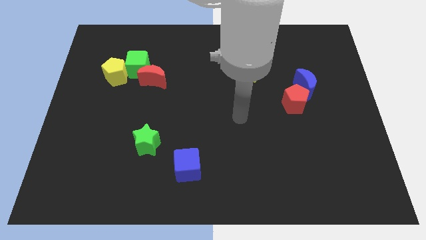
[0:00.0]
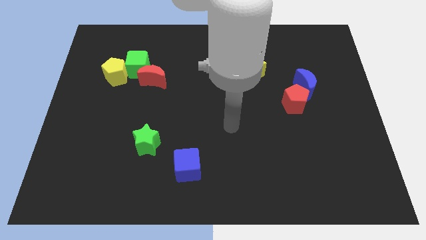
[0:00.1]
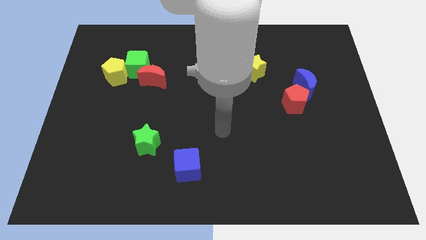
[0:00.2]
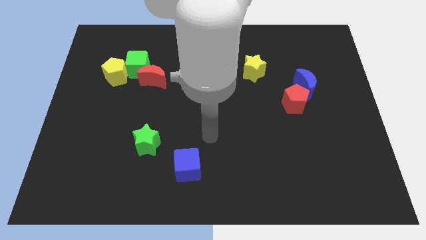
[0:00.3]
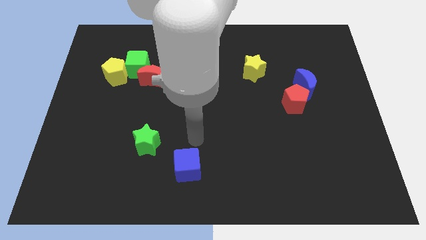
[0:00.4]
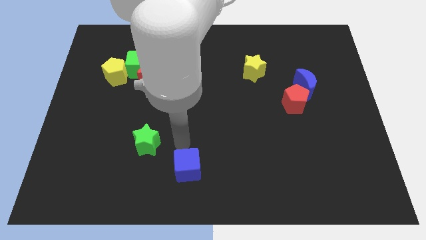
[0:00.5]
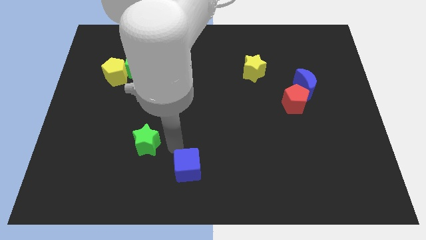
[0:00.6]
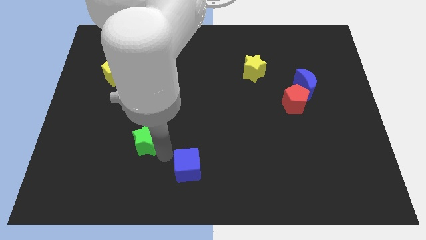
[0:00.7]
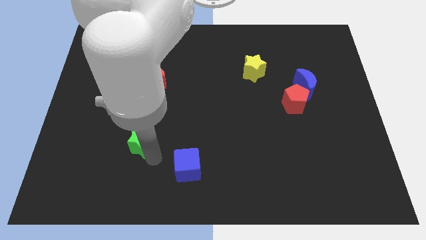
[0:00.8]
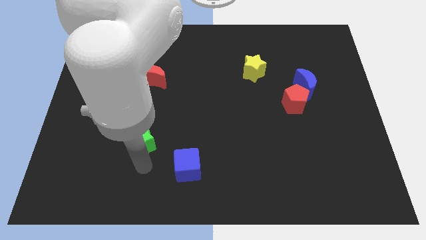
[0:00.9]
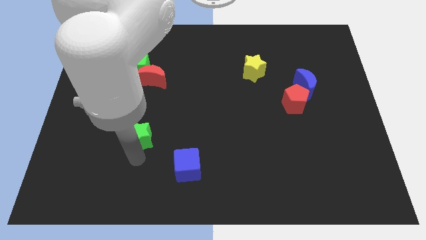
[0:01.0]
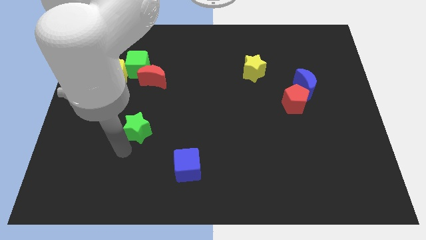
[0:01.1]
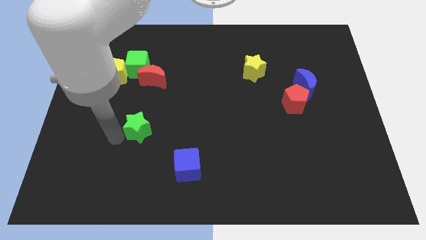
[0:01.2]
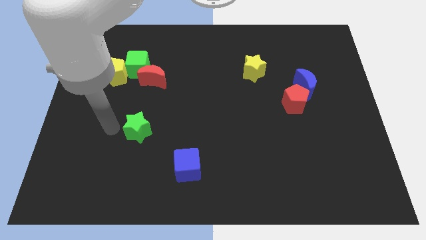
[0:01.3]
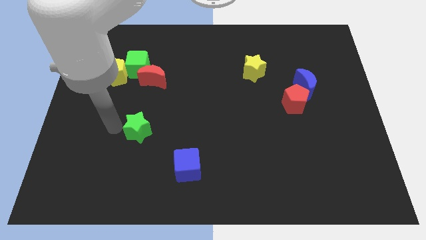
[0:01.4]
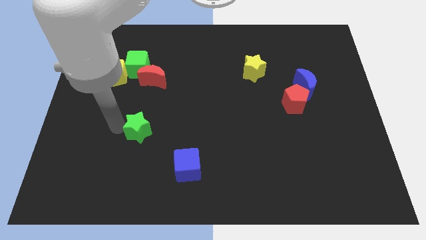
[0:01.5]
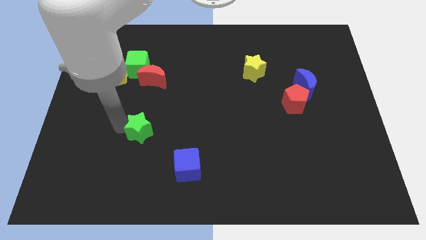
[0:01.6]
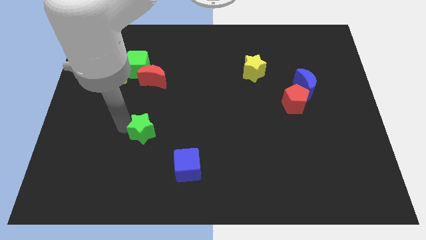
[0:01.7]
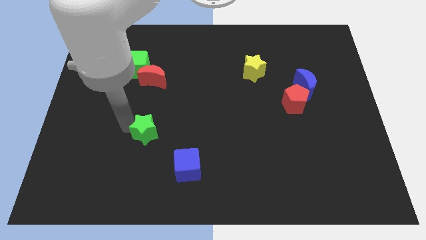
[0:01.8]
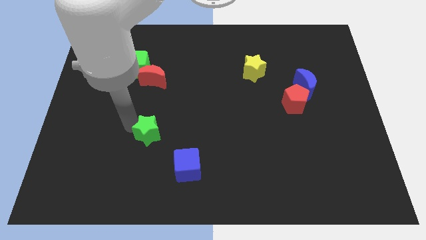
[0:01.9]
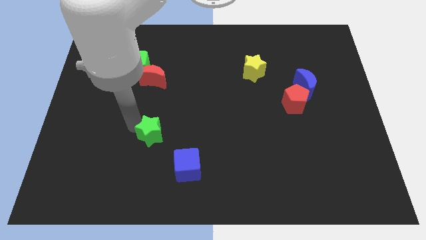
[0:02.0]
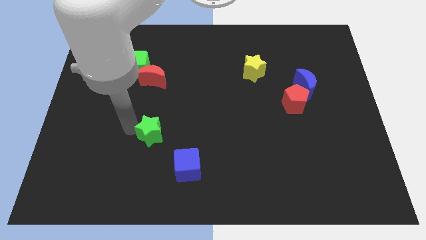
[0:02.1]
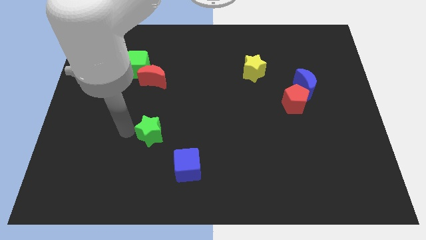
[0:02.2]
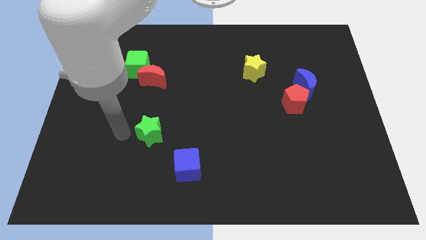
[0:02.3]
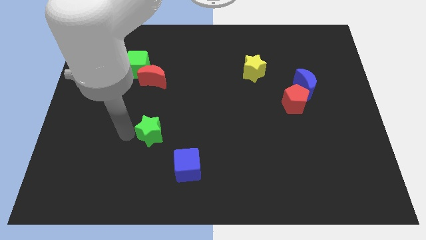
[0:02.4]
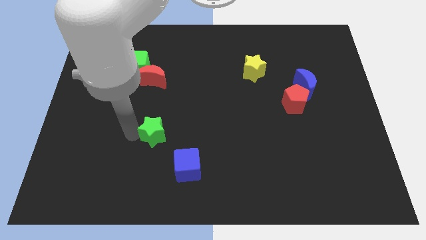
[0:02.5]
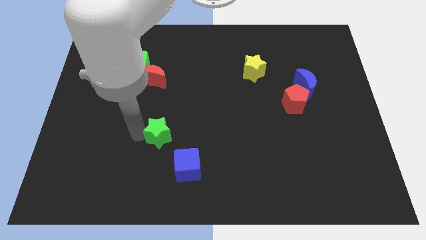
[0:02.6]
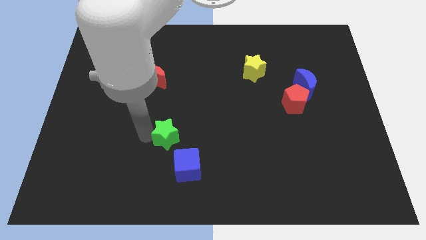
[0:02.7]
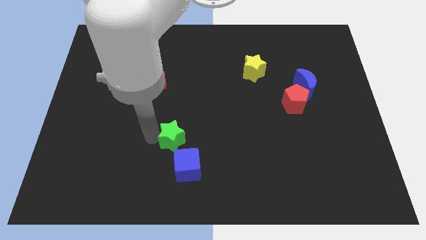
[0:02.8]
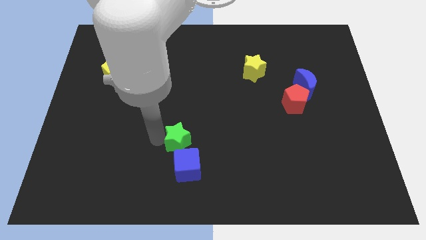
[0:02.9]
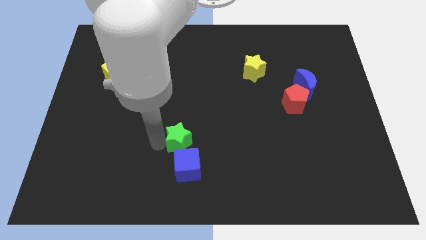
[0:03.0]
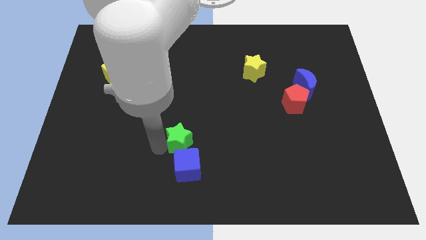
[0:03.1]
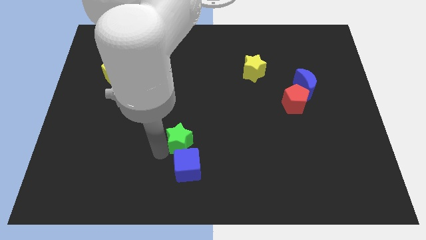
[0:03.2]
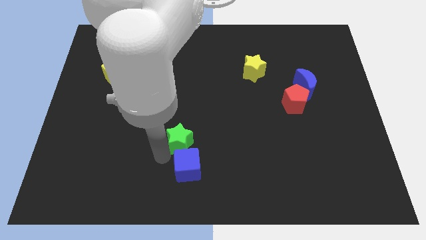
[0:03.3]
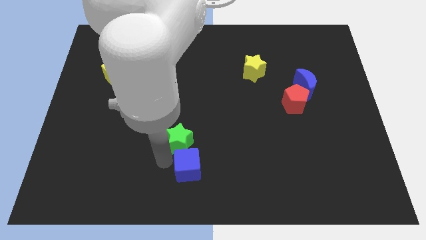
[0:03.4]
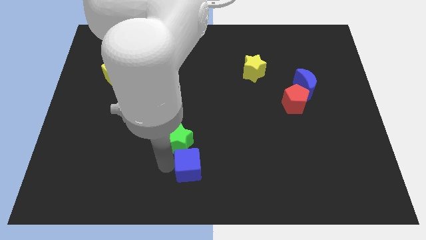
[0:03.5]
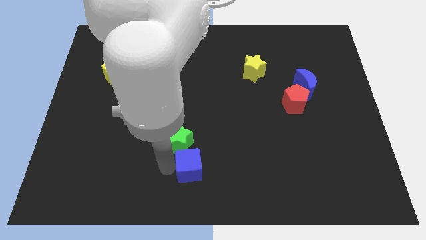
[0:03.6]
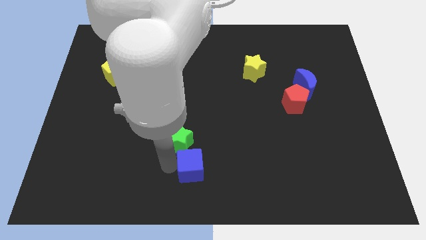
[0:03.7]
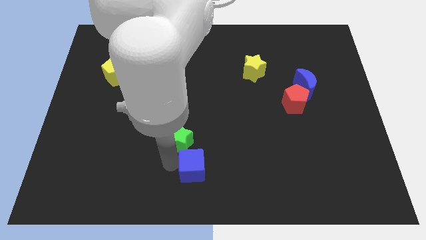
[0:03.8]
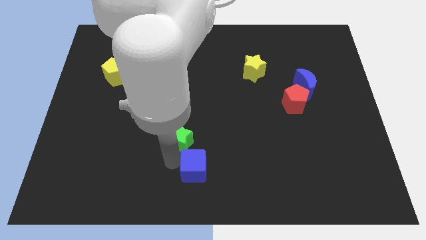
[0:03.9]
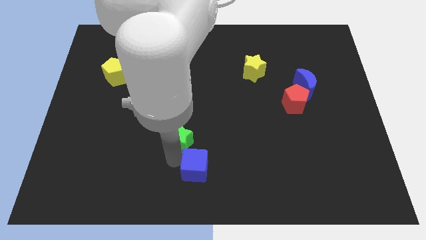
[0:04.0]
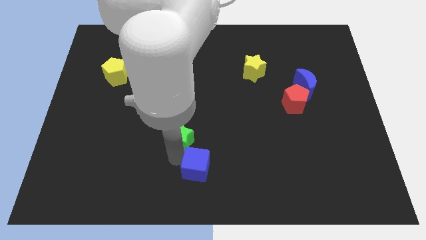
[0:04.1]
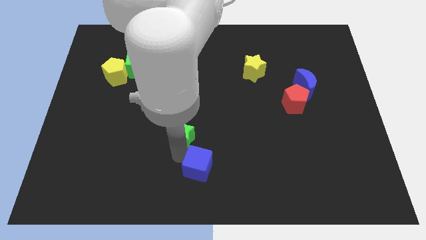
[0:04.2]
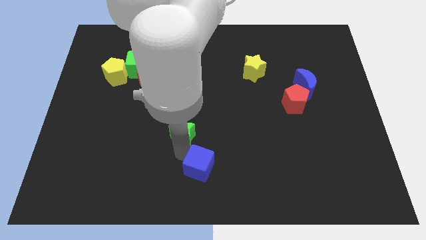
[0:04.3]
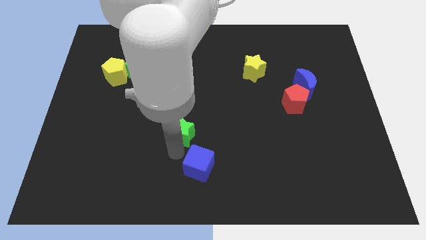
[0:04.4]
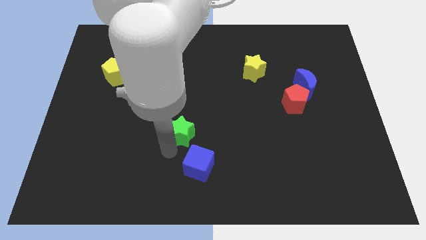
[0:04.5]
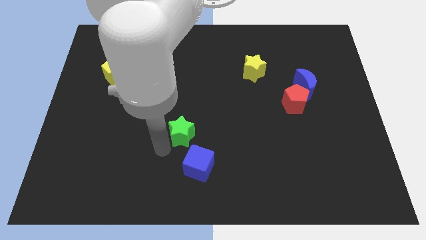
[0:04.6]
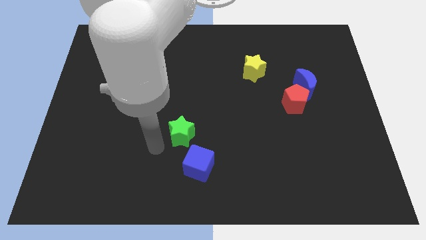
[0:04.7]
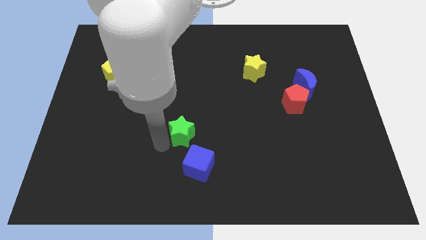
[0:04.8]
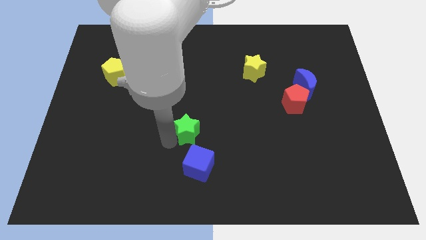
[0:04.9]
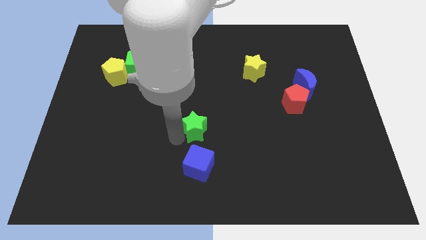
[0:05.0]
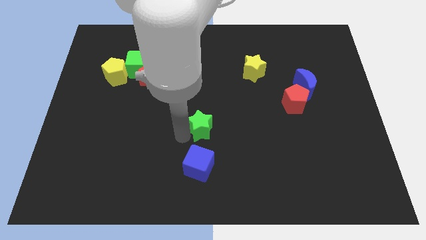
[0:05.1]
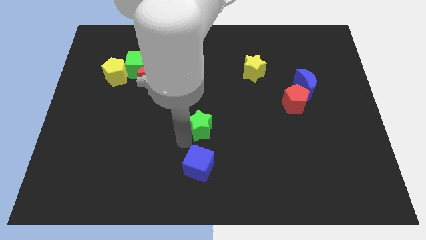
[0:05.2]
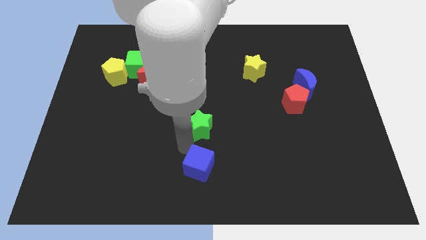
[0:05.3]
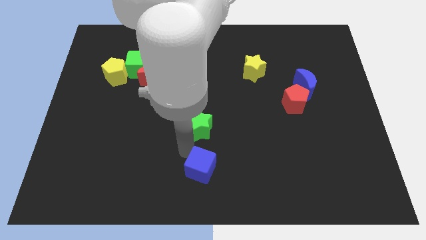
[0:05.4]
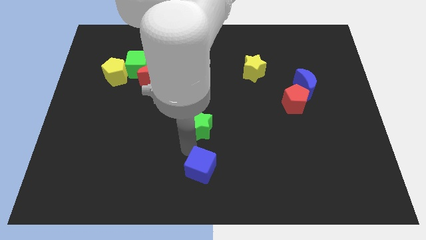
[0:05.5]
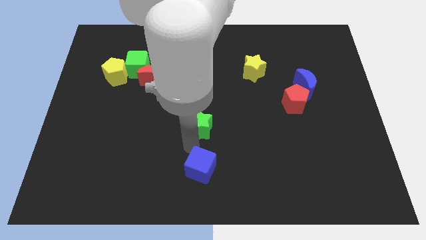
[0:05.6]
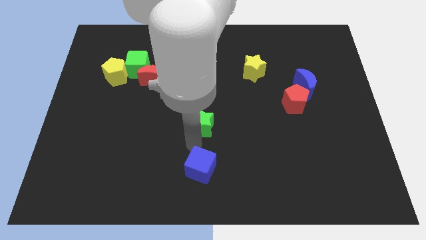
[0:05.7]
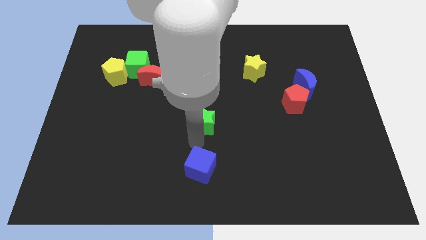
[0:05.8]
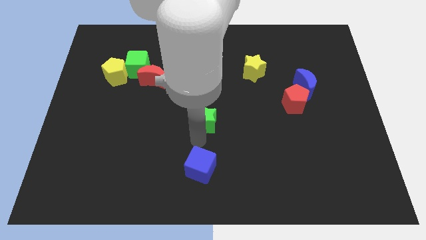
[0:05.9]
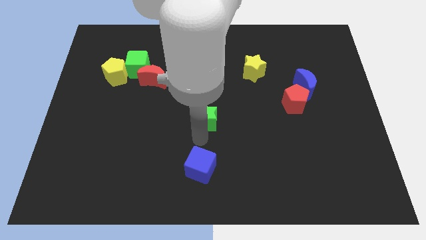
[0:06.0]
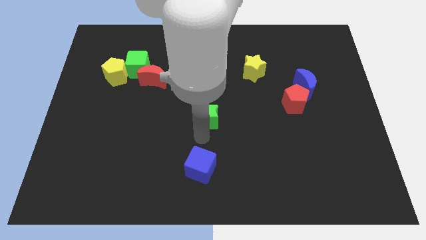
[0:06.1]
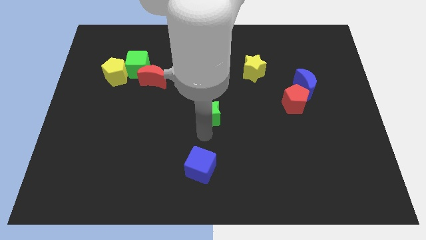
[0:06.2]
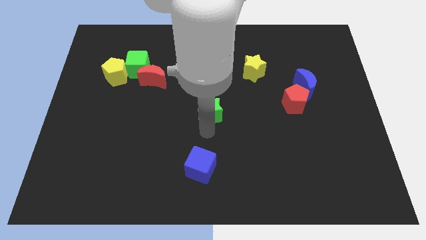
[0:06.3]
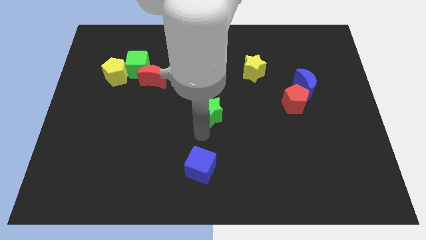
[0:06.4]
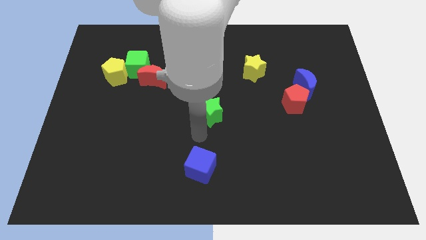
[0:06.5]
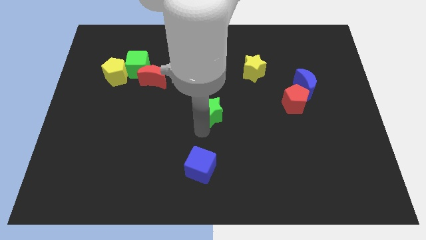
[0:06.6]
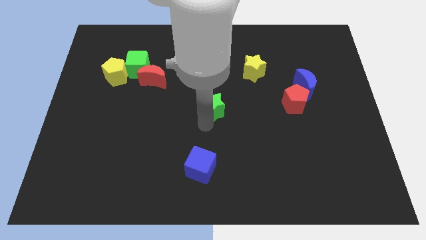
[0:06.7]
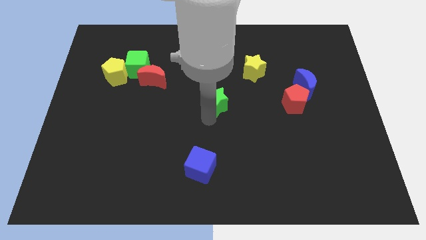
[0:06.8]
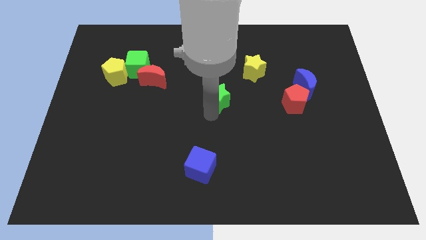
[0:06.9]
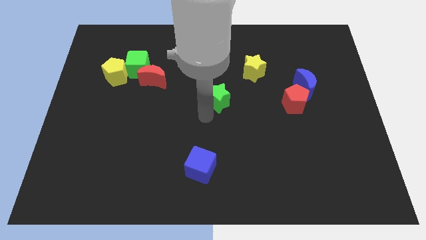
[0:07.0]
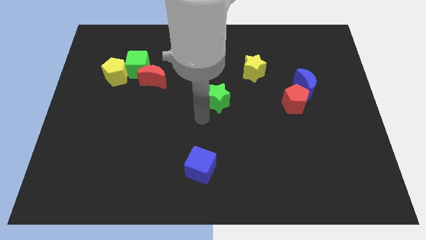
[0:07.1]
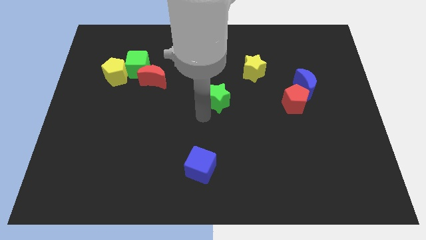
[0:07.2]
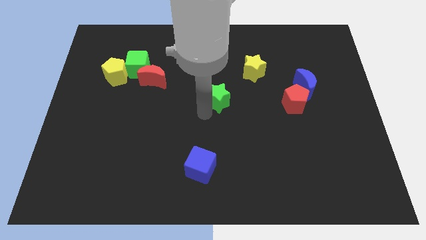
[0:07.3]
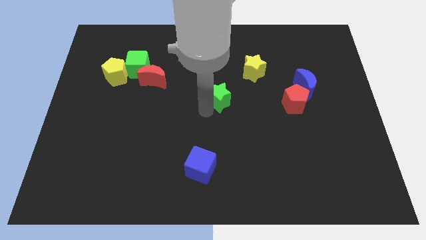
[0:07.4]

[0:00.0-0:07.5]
put the green star diagonally down and to the left of the yellow star
